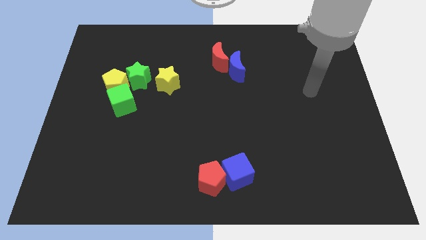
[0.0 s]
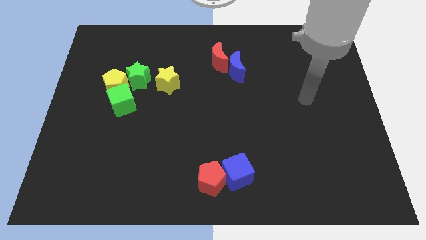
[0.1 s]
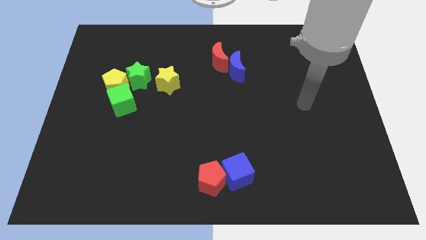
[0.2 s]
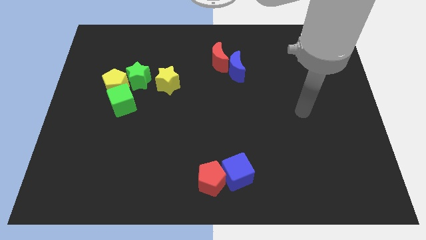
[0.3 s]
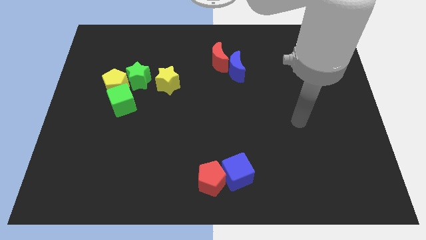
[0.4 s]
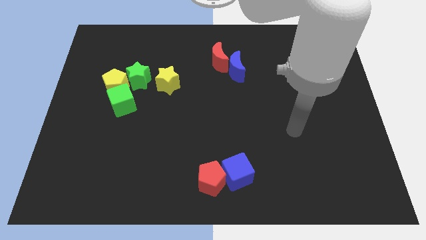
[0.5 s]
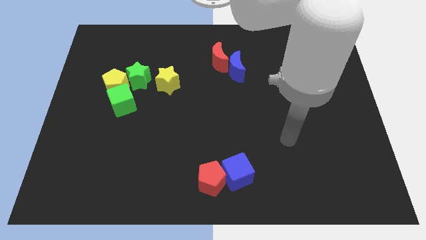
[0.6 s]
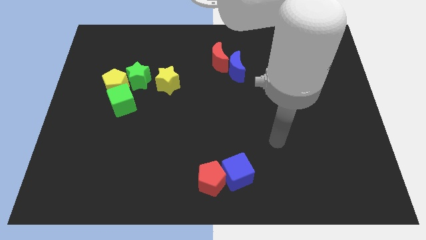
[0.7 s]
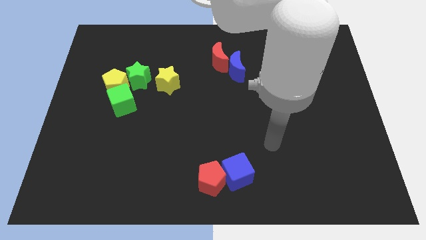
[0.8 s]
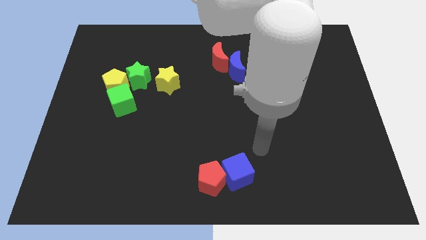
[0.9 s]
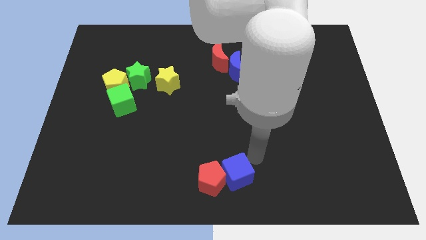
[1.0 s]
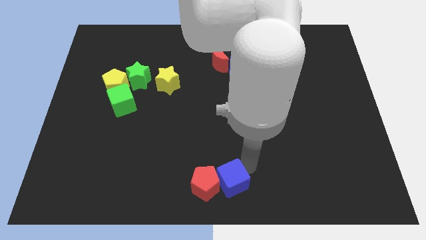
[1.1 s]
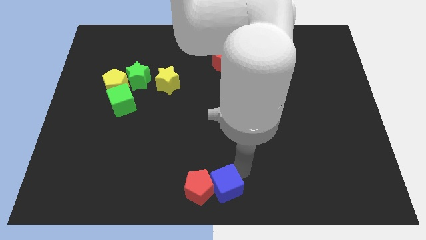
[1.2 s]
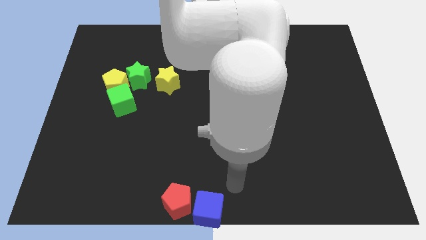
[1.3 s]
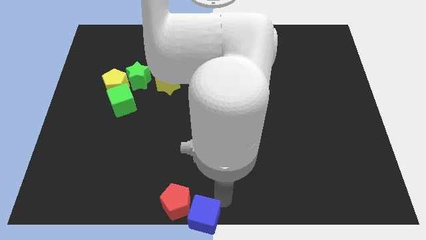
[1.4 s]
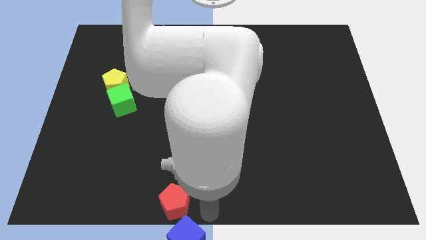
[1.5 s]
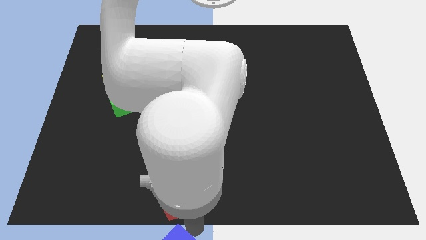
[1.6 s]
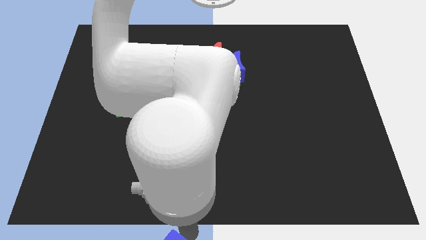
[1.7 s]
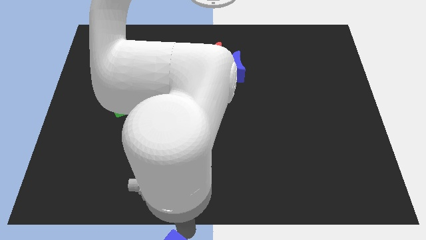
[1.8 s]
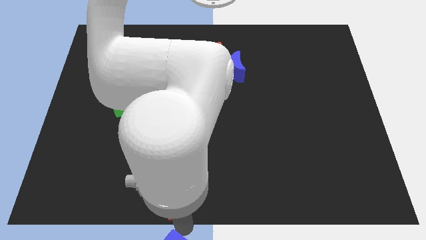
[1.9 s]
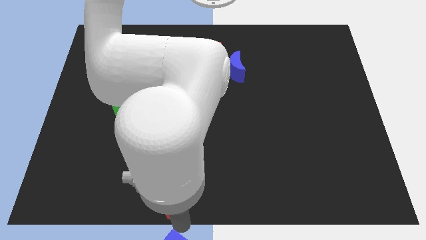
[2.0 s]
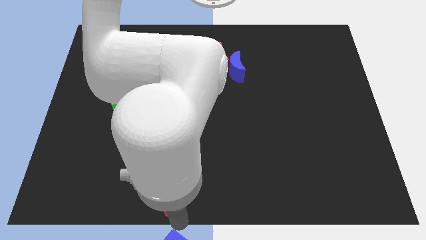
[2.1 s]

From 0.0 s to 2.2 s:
push the red pentagon a bit to the left

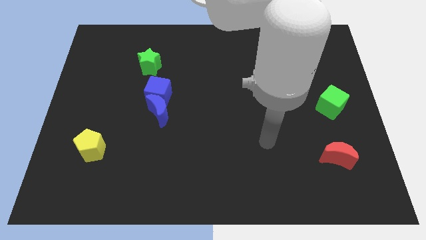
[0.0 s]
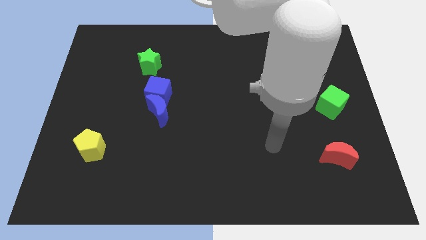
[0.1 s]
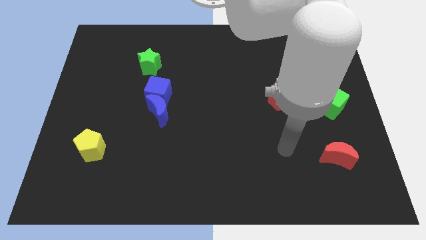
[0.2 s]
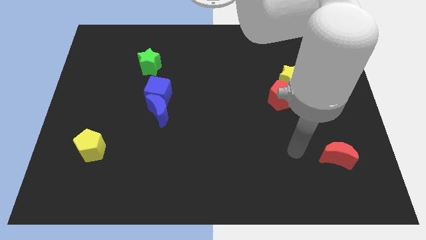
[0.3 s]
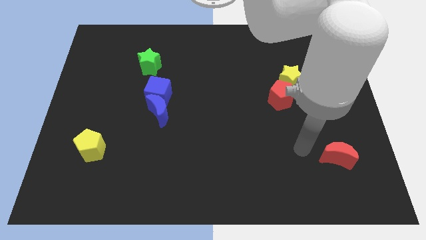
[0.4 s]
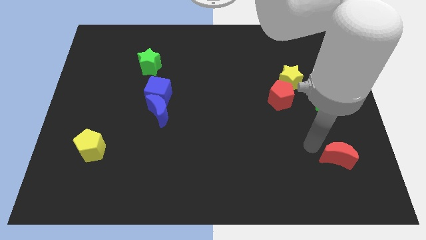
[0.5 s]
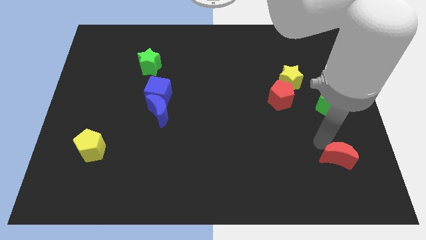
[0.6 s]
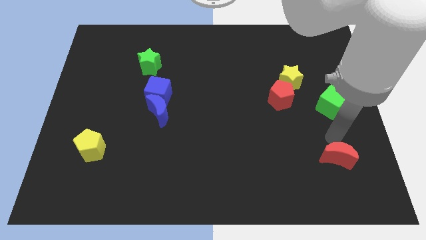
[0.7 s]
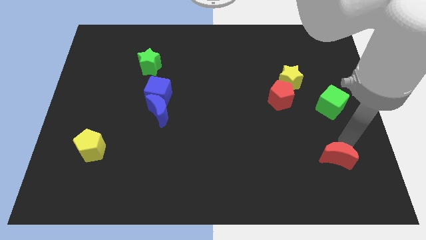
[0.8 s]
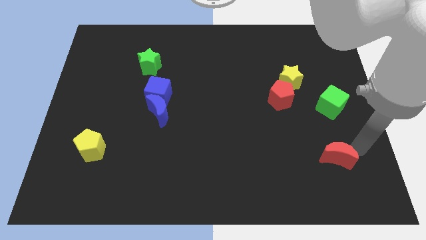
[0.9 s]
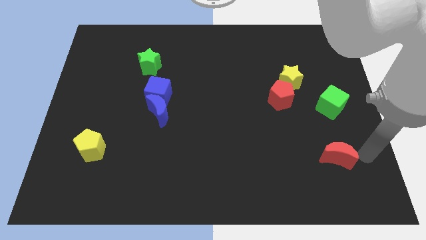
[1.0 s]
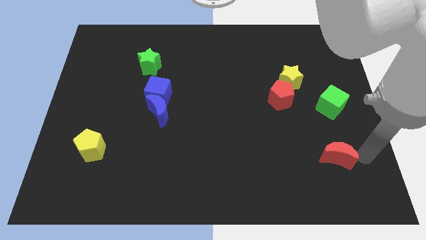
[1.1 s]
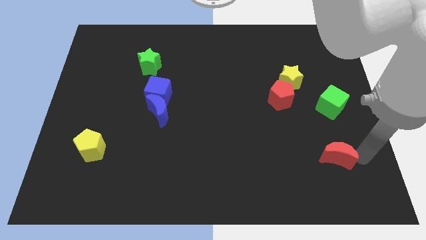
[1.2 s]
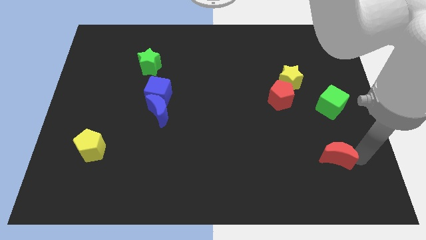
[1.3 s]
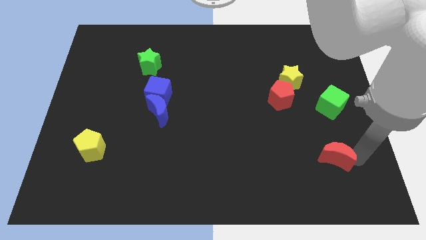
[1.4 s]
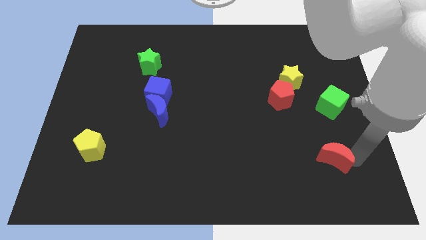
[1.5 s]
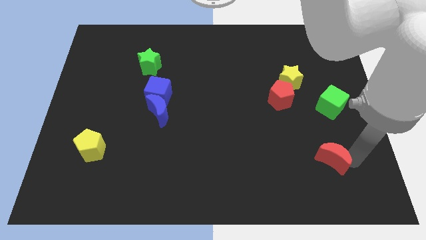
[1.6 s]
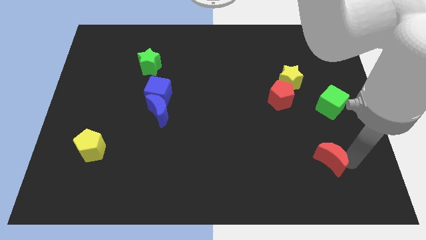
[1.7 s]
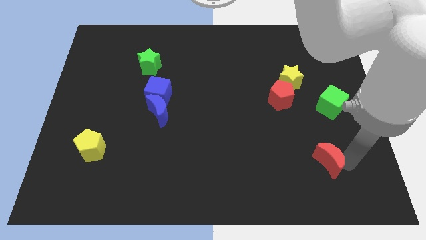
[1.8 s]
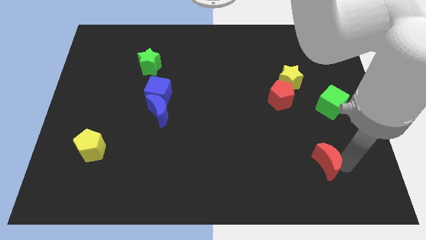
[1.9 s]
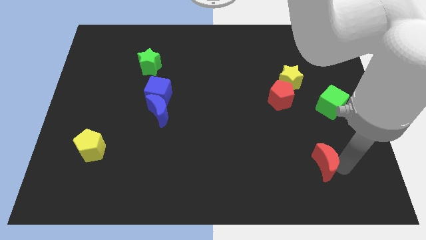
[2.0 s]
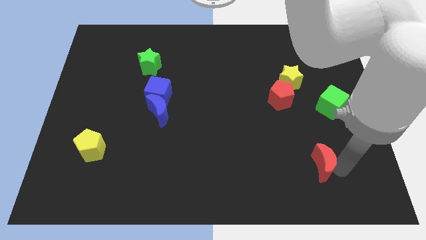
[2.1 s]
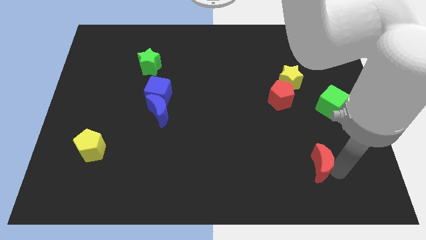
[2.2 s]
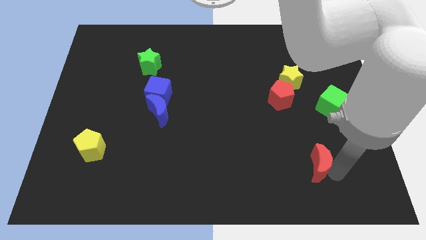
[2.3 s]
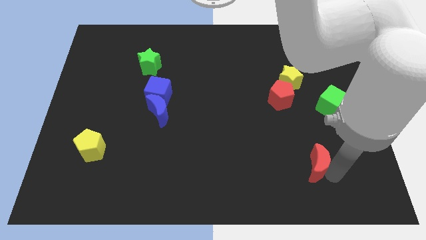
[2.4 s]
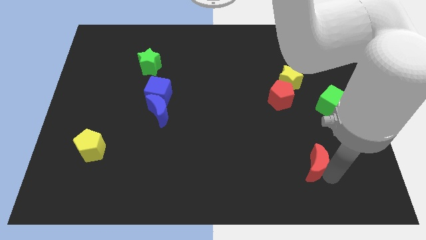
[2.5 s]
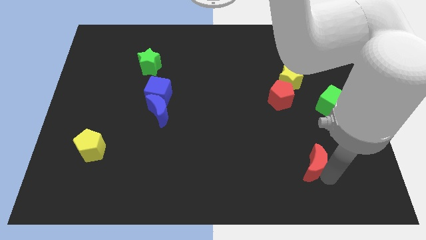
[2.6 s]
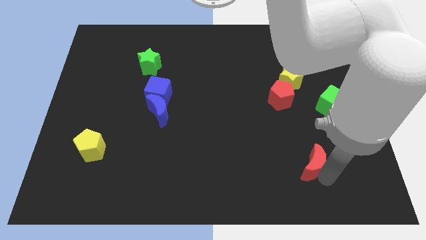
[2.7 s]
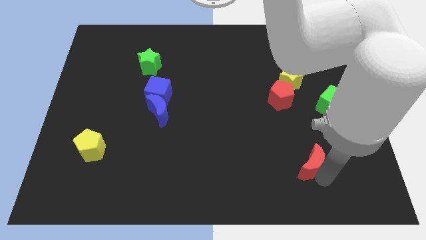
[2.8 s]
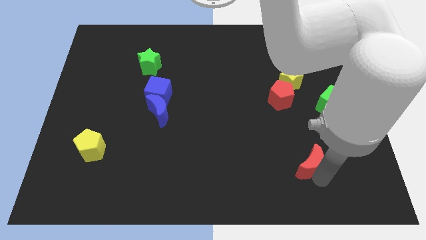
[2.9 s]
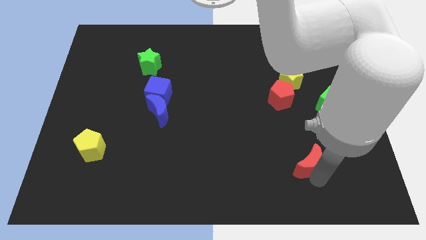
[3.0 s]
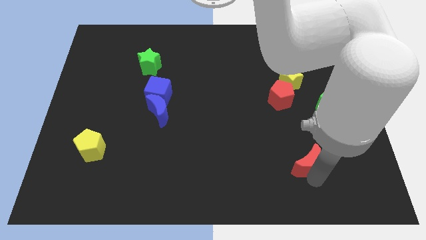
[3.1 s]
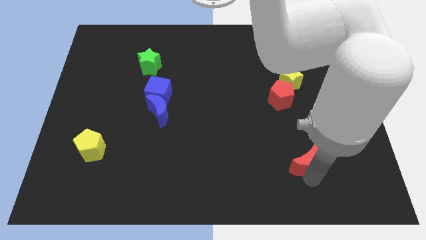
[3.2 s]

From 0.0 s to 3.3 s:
slightly move the red moon left

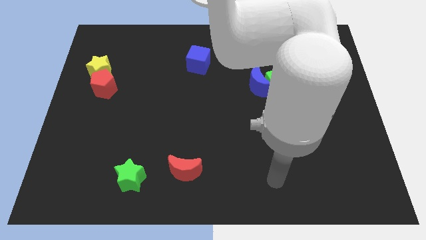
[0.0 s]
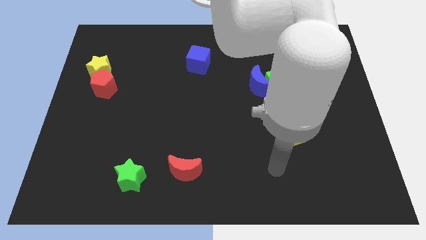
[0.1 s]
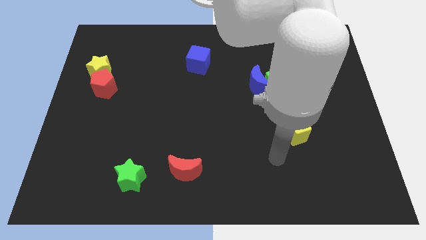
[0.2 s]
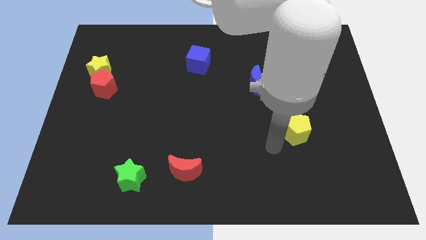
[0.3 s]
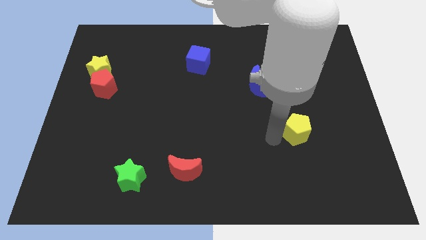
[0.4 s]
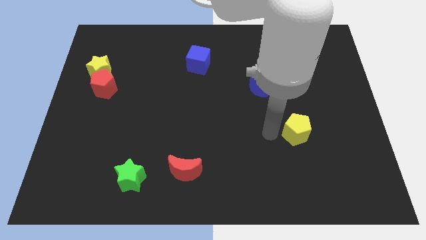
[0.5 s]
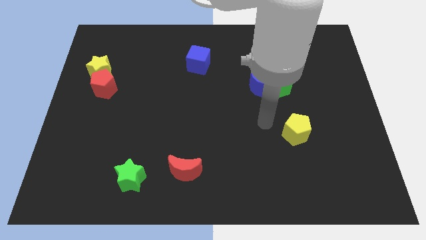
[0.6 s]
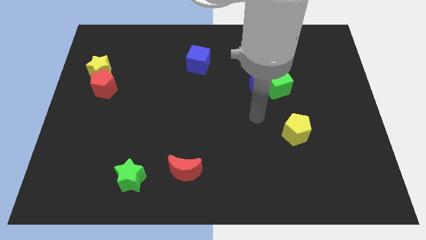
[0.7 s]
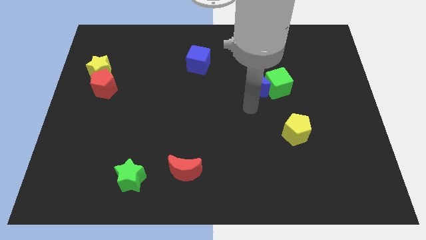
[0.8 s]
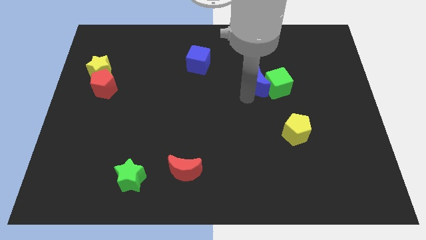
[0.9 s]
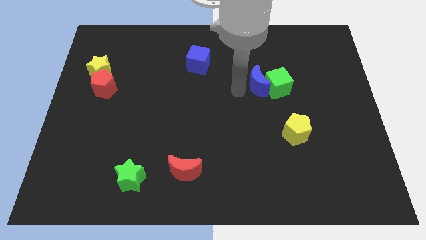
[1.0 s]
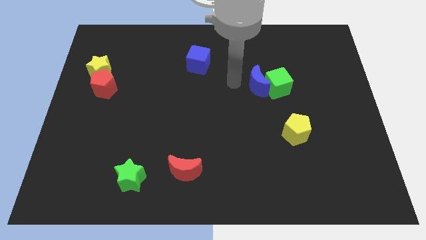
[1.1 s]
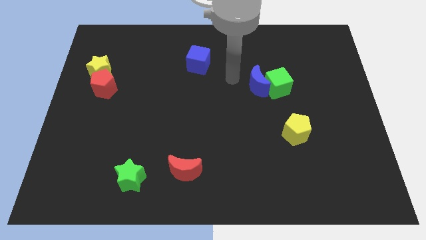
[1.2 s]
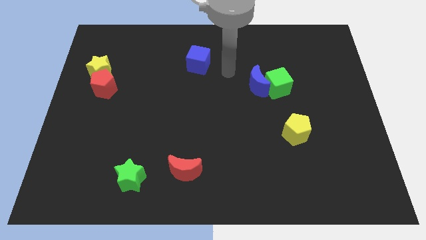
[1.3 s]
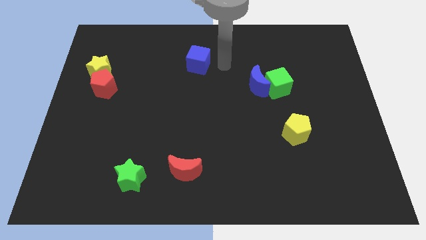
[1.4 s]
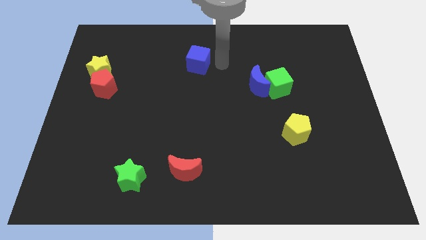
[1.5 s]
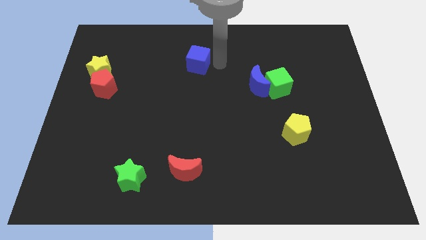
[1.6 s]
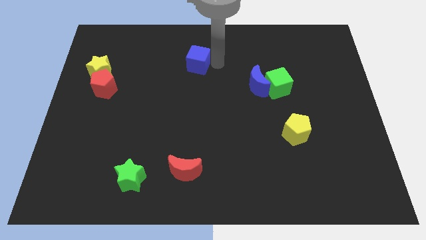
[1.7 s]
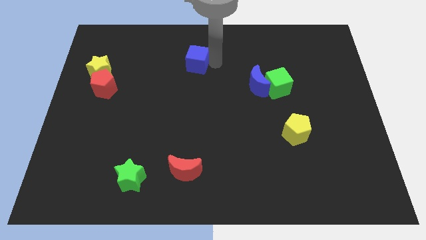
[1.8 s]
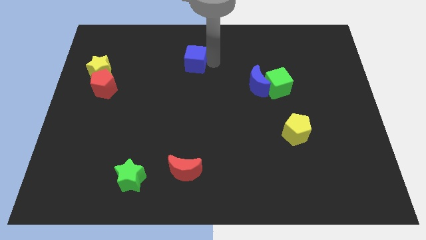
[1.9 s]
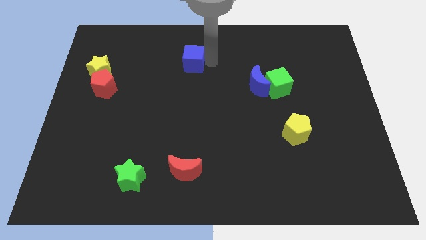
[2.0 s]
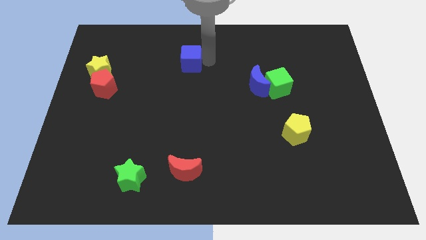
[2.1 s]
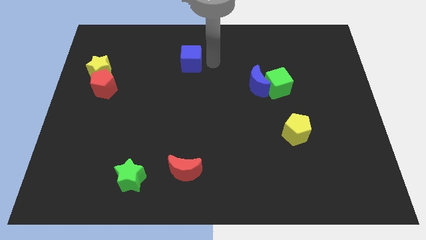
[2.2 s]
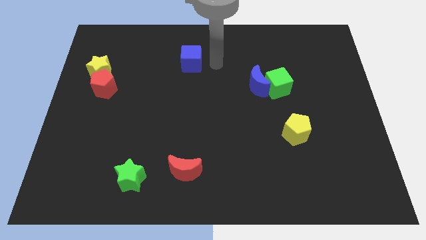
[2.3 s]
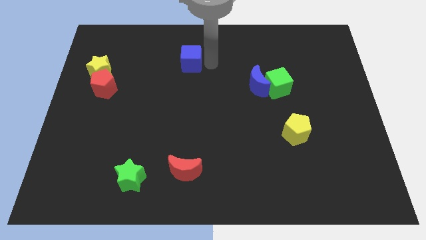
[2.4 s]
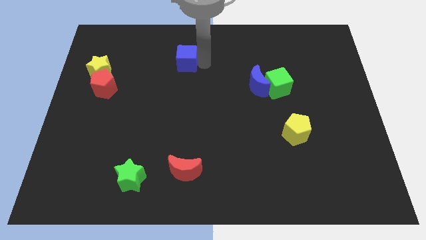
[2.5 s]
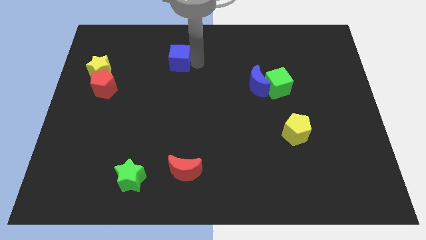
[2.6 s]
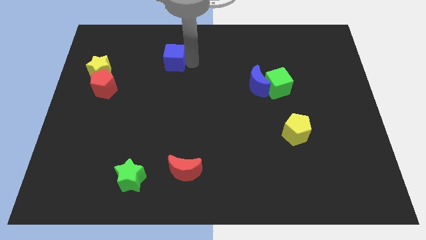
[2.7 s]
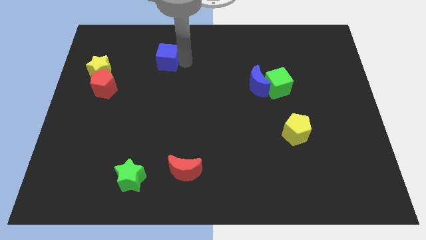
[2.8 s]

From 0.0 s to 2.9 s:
slide the blue cube slightly left
